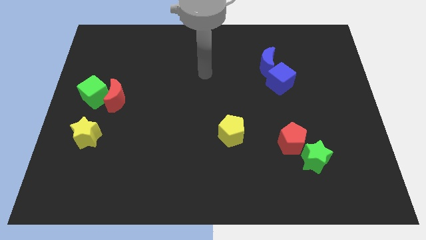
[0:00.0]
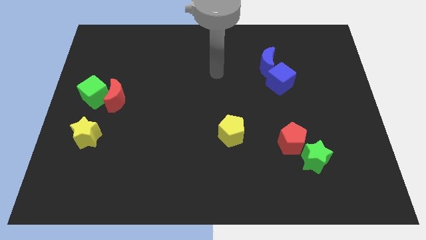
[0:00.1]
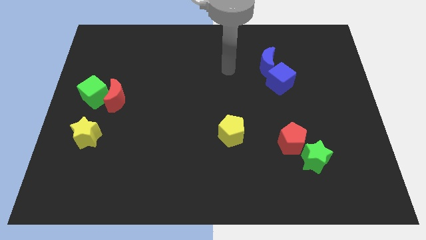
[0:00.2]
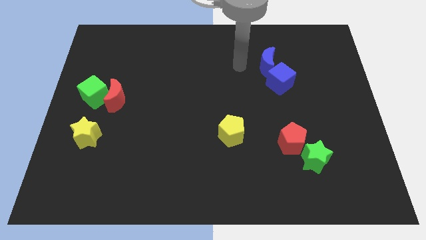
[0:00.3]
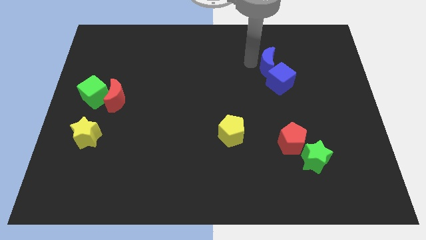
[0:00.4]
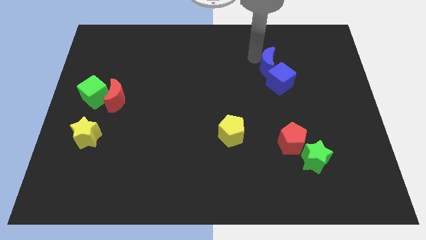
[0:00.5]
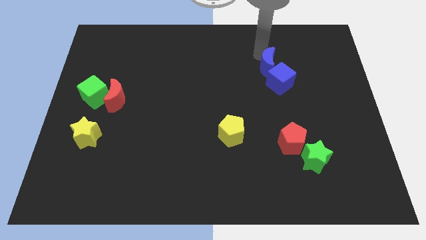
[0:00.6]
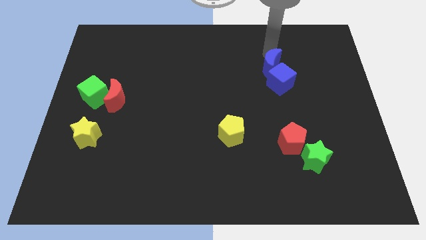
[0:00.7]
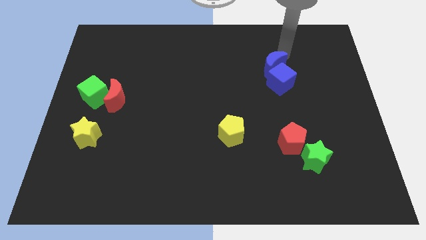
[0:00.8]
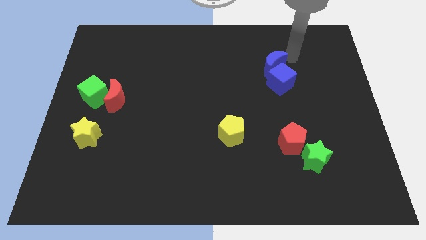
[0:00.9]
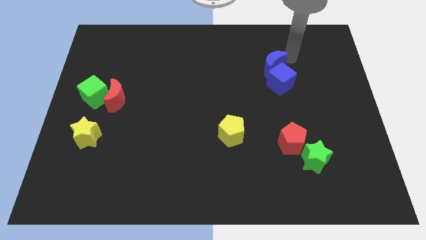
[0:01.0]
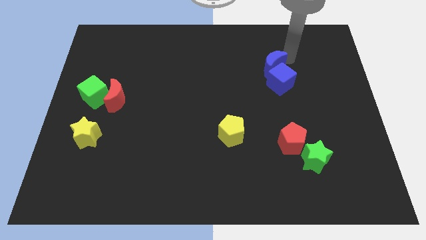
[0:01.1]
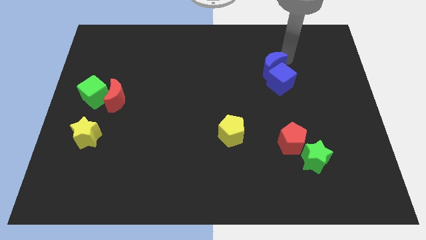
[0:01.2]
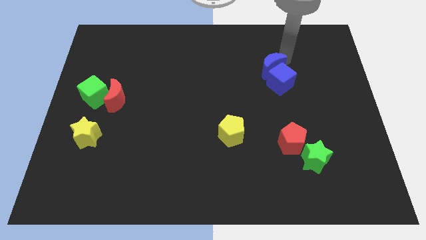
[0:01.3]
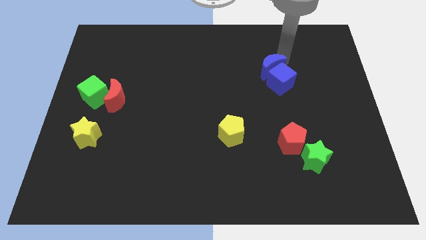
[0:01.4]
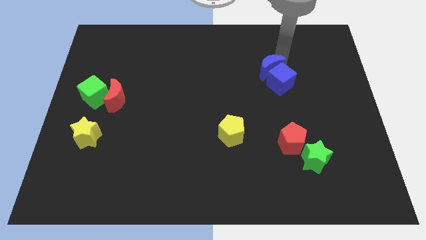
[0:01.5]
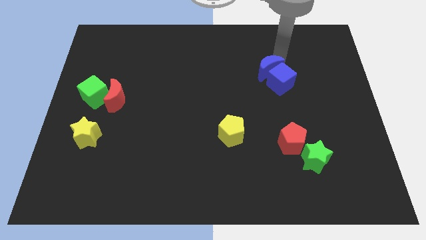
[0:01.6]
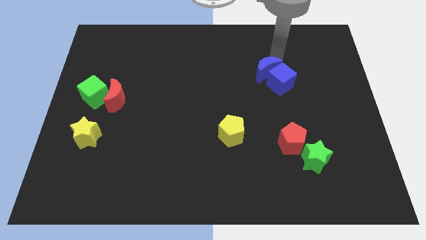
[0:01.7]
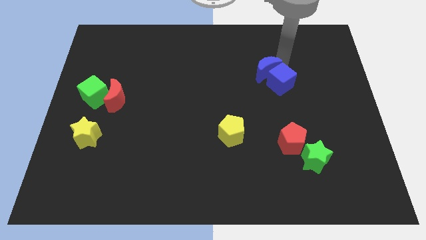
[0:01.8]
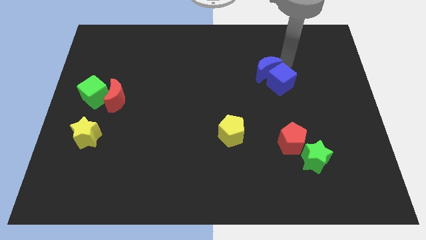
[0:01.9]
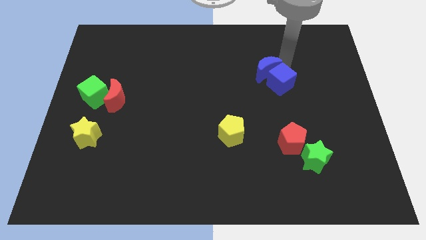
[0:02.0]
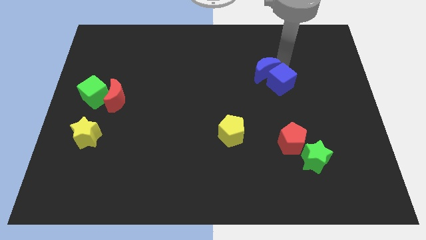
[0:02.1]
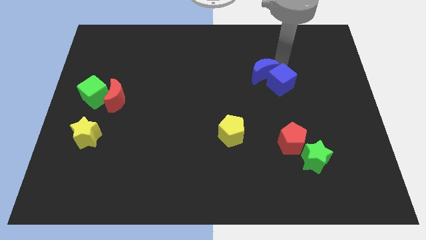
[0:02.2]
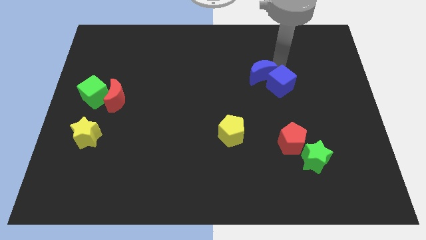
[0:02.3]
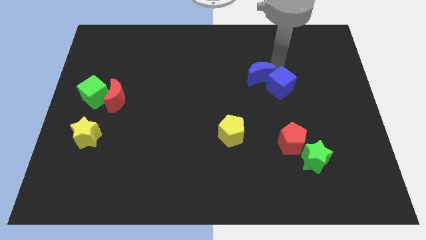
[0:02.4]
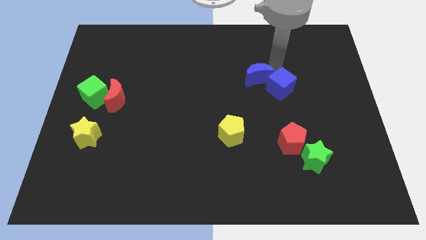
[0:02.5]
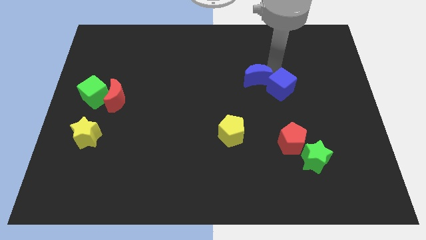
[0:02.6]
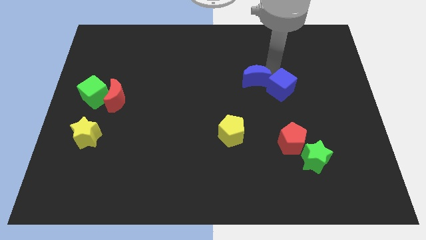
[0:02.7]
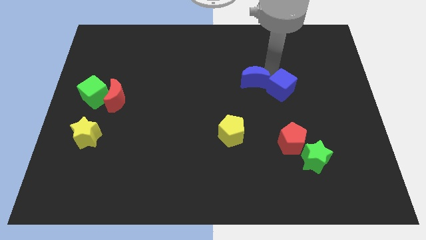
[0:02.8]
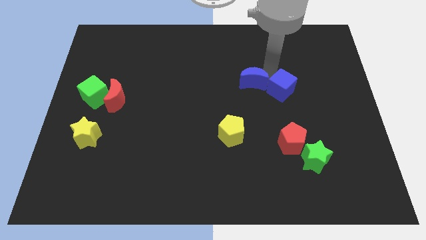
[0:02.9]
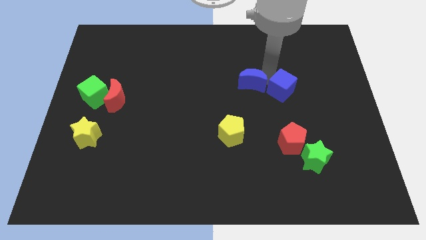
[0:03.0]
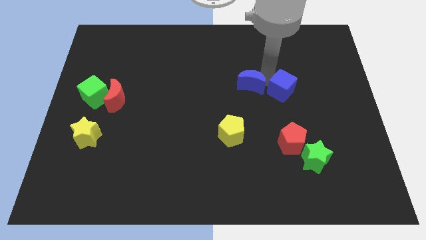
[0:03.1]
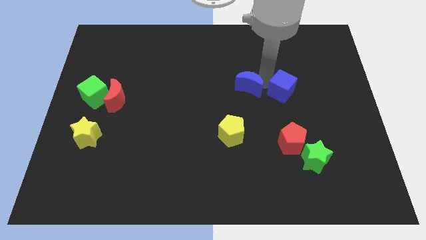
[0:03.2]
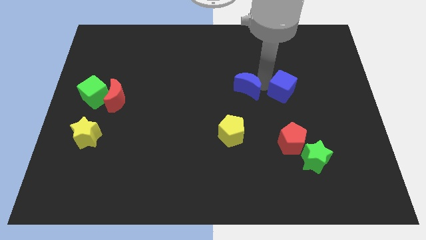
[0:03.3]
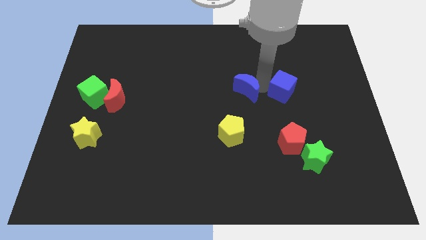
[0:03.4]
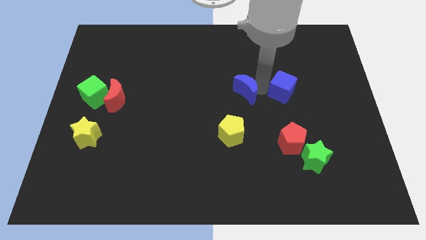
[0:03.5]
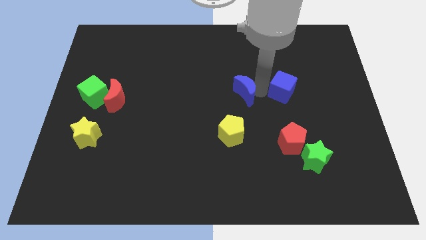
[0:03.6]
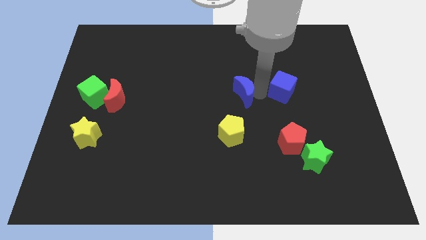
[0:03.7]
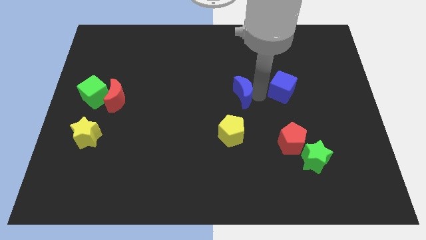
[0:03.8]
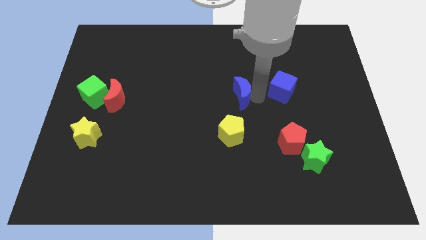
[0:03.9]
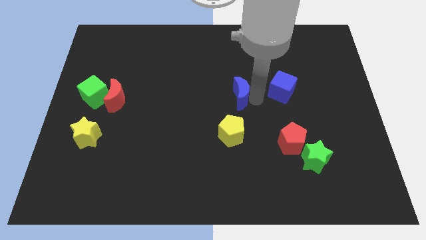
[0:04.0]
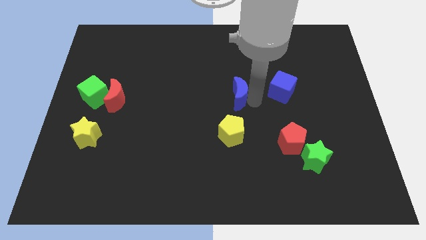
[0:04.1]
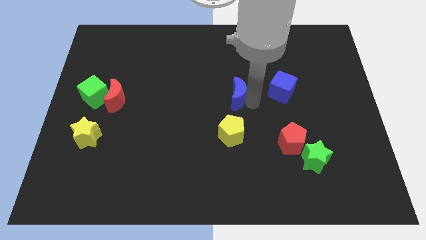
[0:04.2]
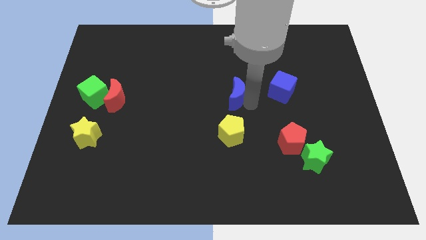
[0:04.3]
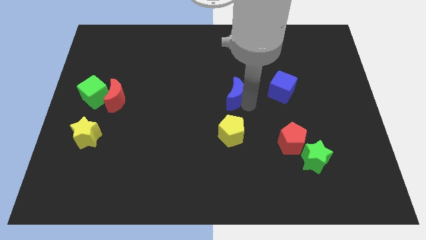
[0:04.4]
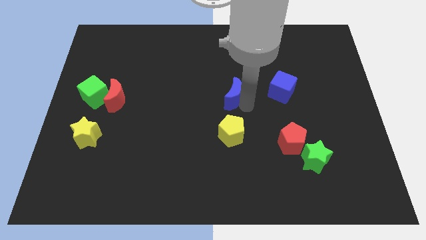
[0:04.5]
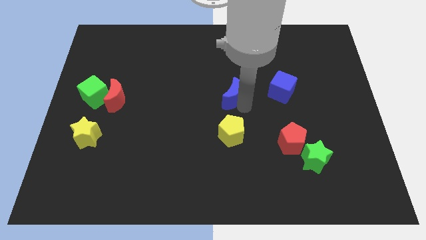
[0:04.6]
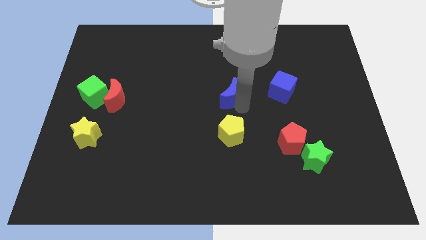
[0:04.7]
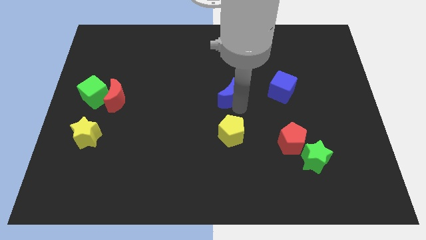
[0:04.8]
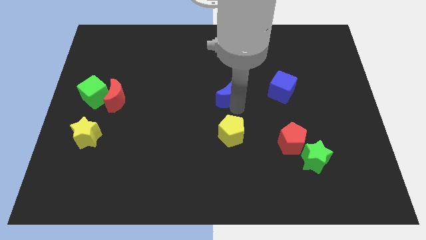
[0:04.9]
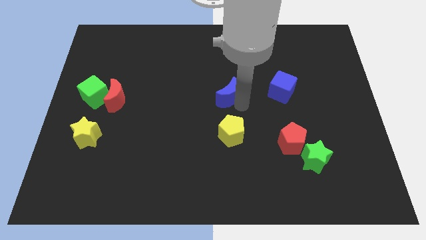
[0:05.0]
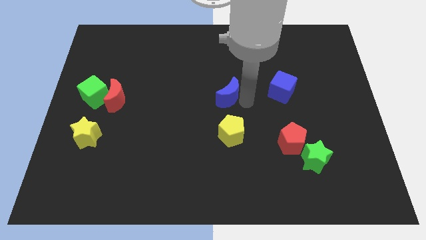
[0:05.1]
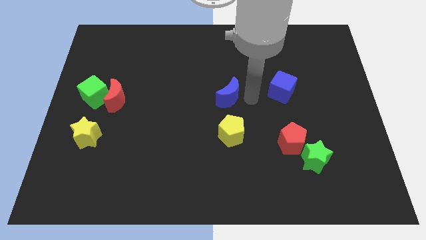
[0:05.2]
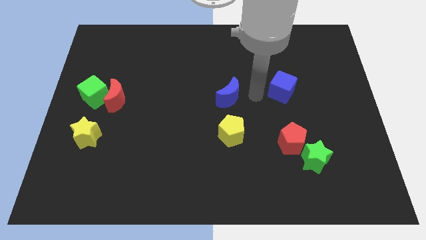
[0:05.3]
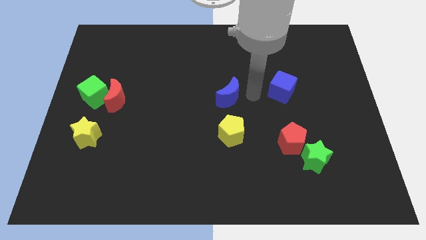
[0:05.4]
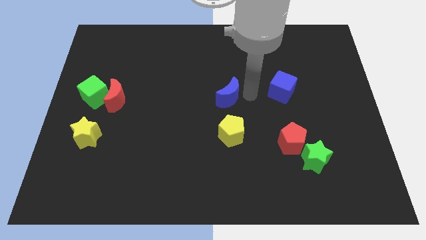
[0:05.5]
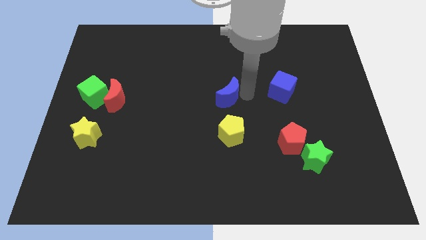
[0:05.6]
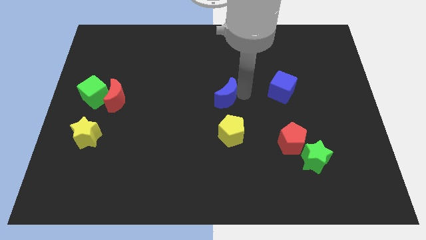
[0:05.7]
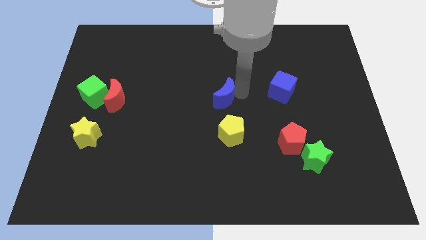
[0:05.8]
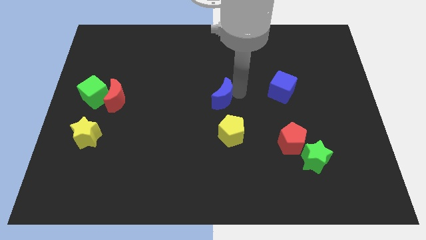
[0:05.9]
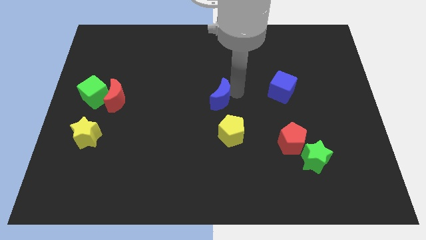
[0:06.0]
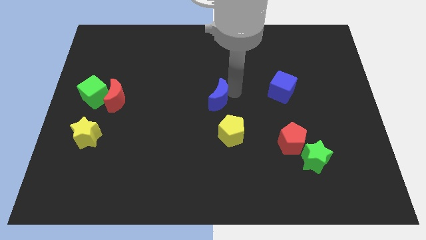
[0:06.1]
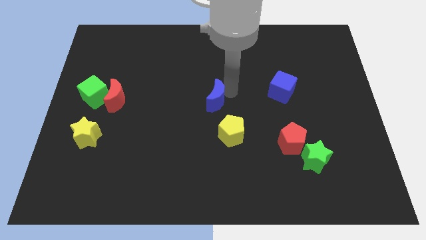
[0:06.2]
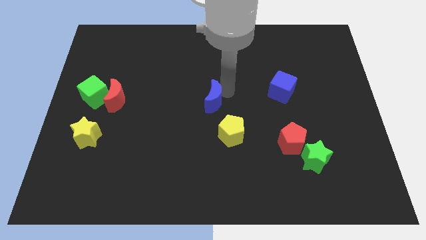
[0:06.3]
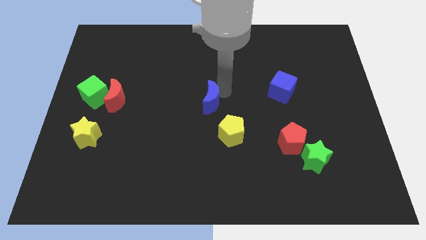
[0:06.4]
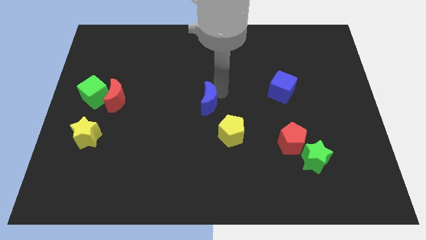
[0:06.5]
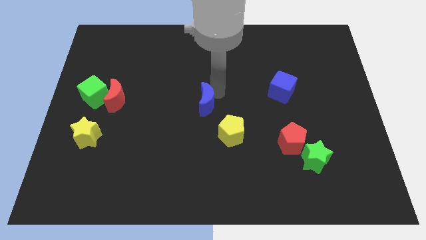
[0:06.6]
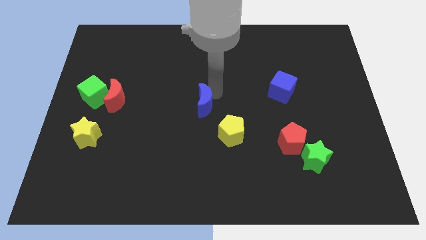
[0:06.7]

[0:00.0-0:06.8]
move the blue moon downwards and left

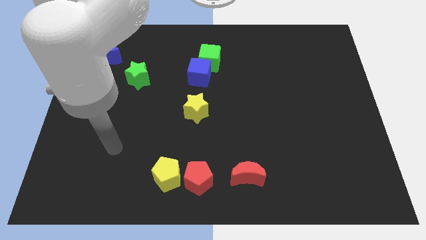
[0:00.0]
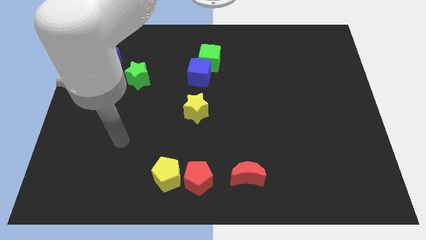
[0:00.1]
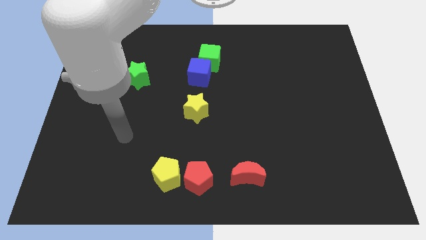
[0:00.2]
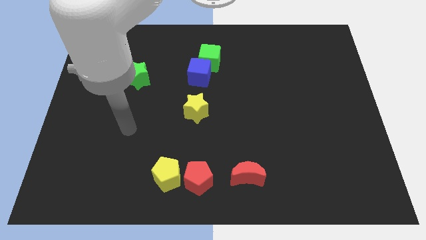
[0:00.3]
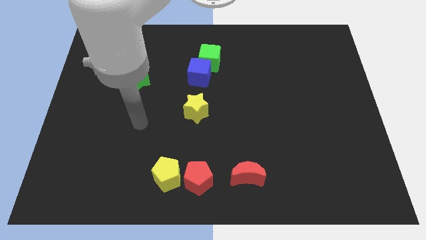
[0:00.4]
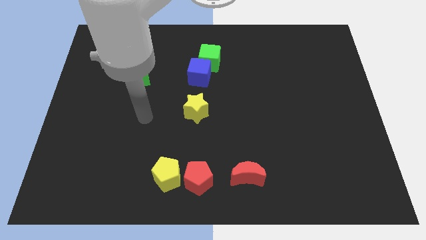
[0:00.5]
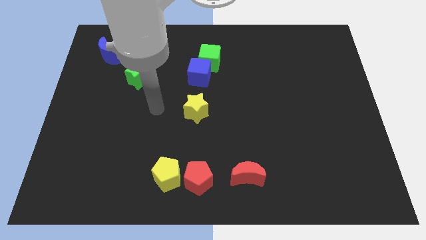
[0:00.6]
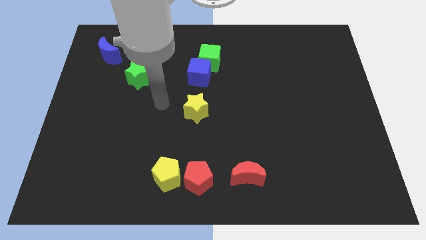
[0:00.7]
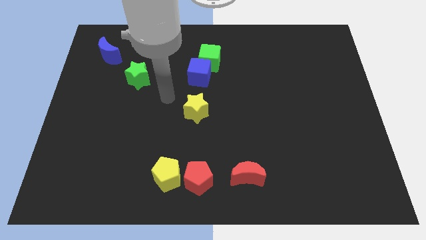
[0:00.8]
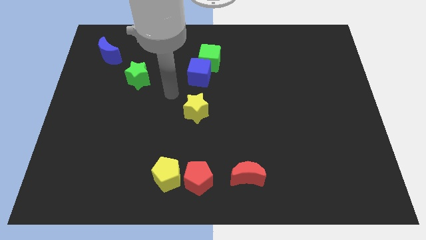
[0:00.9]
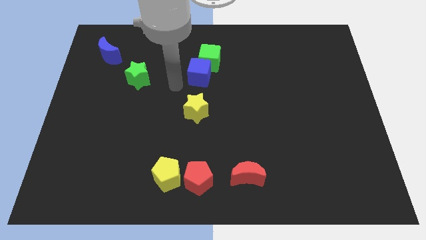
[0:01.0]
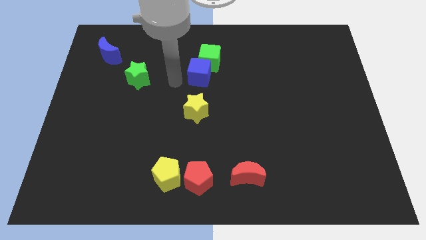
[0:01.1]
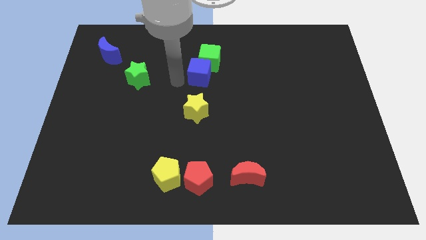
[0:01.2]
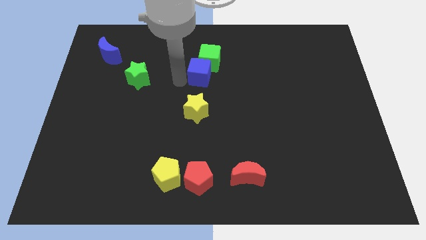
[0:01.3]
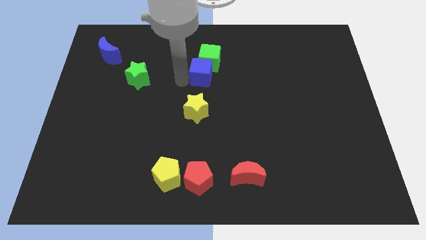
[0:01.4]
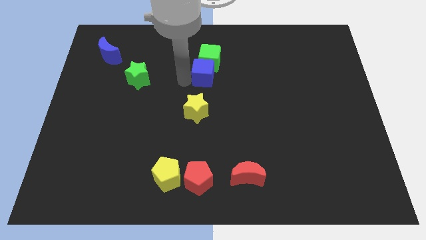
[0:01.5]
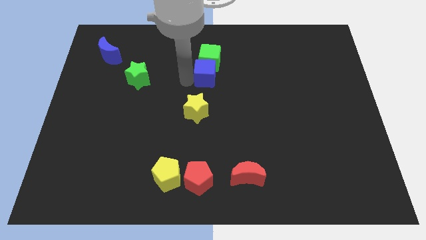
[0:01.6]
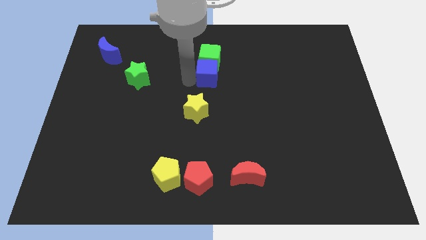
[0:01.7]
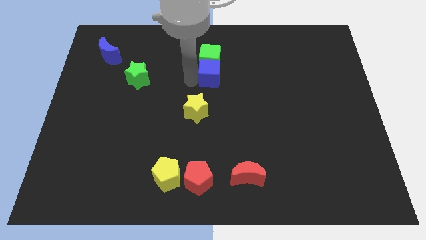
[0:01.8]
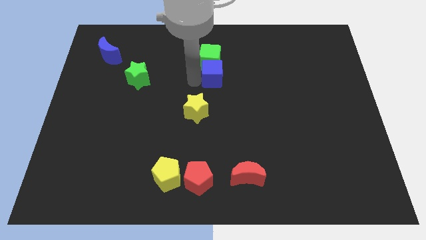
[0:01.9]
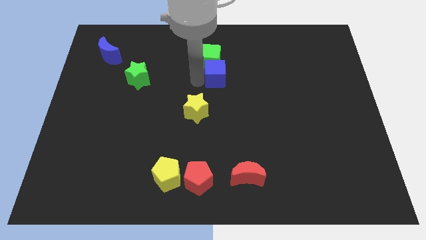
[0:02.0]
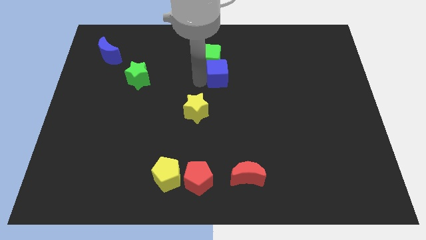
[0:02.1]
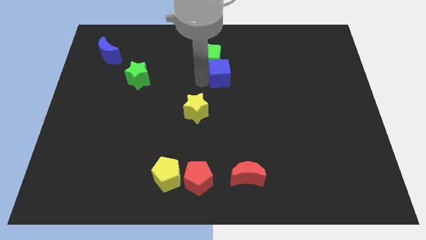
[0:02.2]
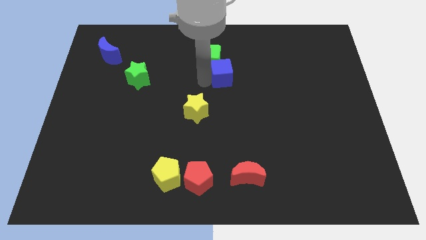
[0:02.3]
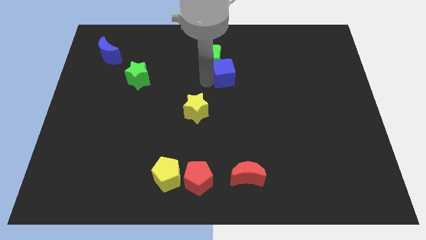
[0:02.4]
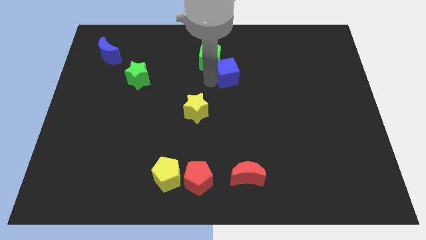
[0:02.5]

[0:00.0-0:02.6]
slide the blue cube a little bit to the right
